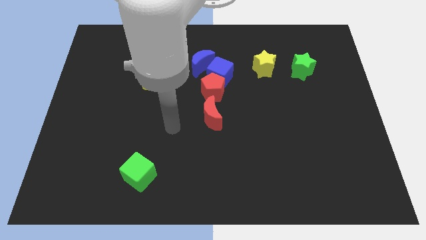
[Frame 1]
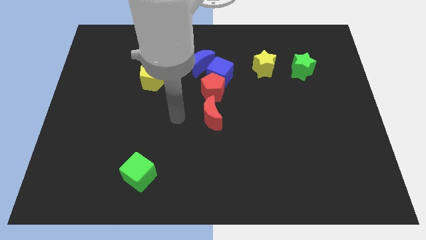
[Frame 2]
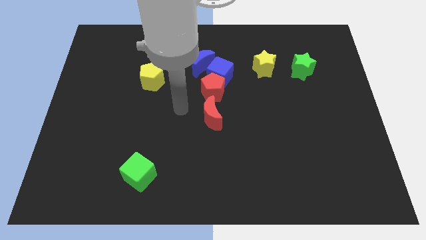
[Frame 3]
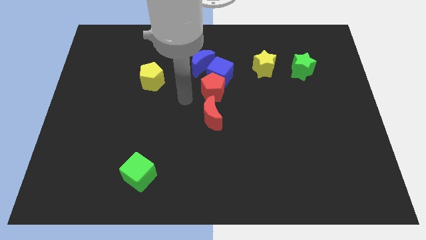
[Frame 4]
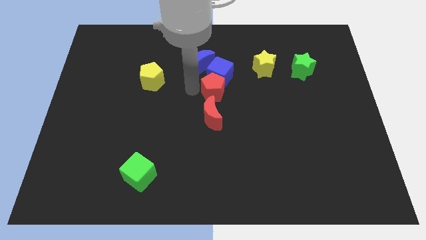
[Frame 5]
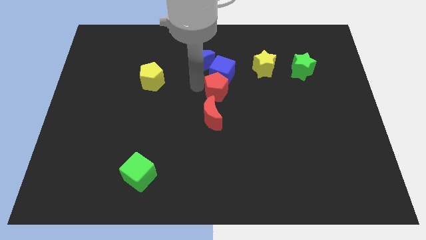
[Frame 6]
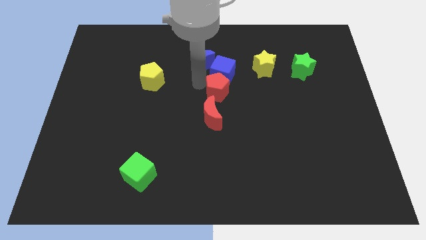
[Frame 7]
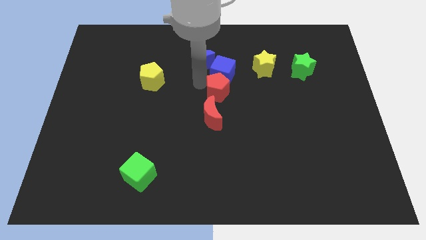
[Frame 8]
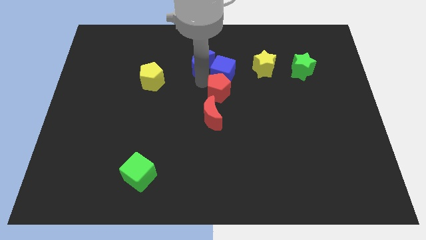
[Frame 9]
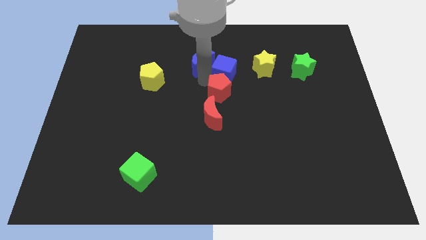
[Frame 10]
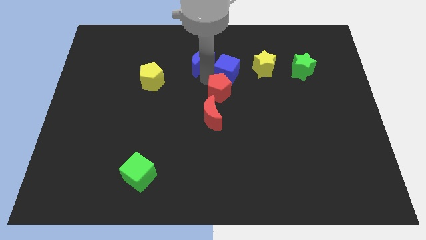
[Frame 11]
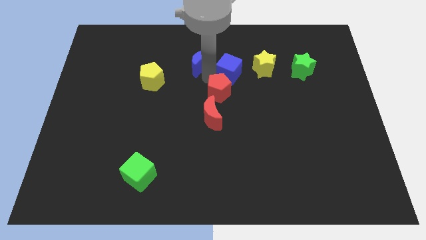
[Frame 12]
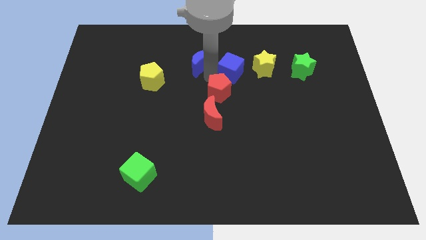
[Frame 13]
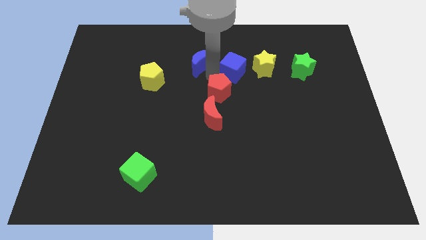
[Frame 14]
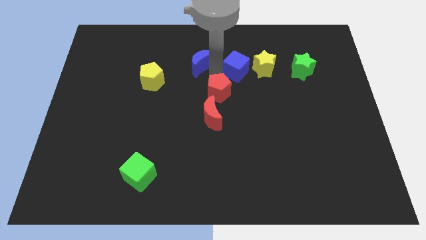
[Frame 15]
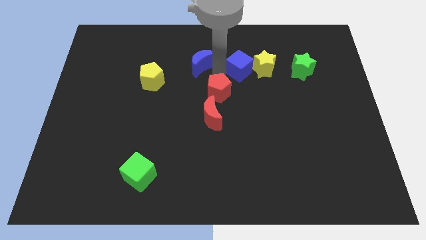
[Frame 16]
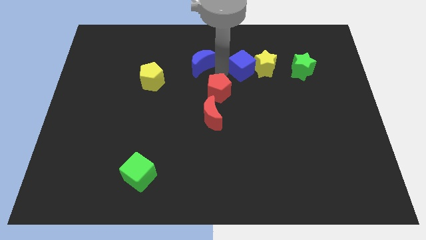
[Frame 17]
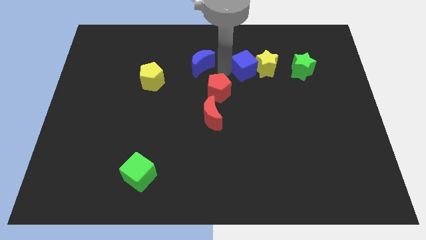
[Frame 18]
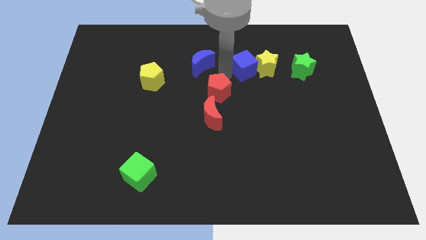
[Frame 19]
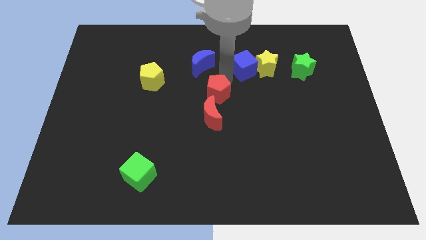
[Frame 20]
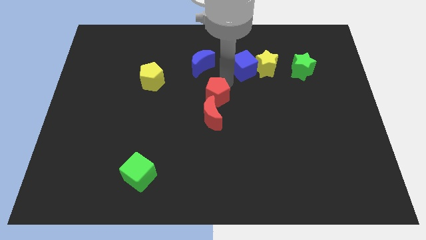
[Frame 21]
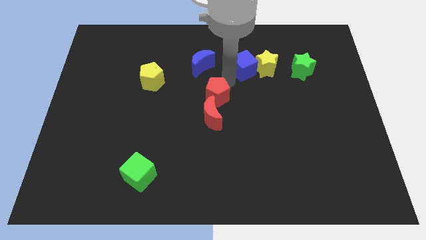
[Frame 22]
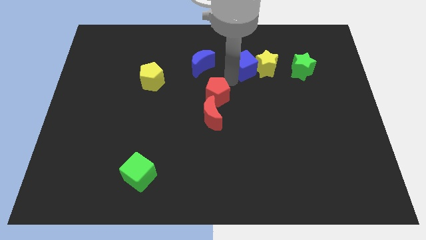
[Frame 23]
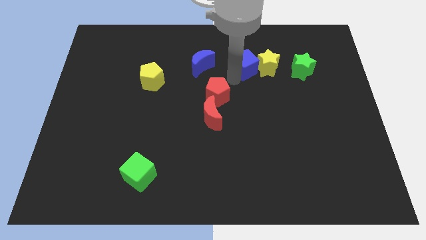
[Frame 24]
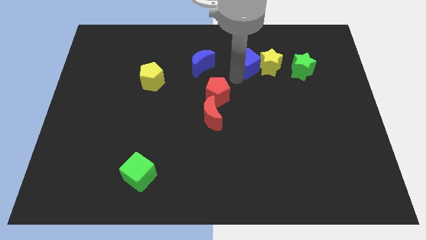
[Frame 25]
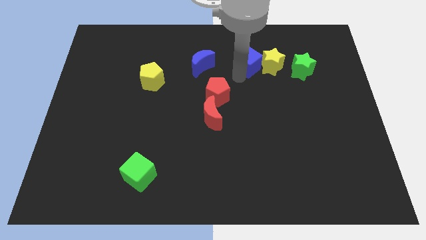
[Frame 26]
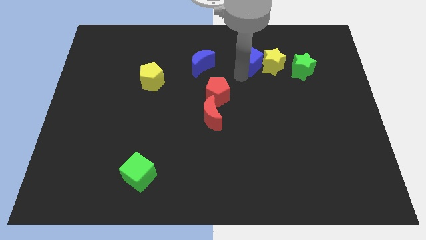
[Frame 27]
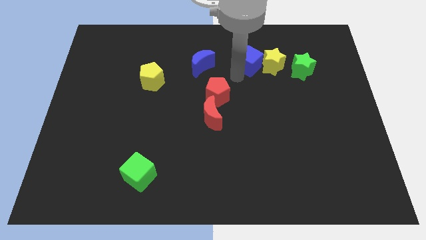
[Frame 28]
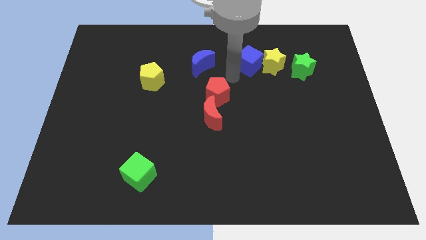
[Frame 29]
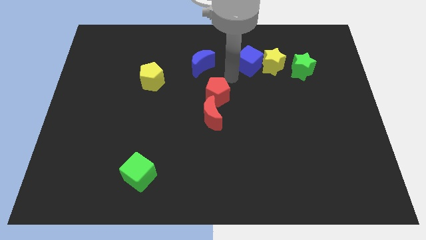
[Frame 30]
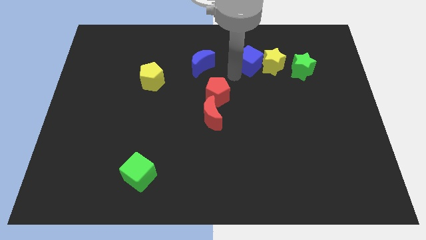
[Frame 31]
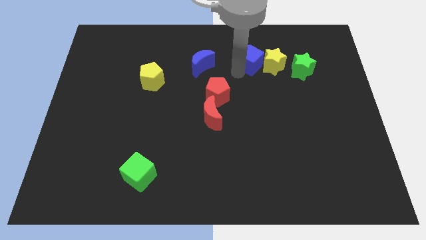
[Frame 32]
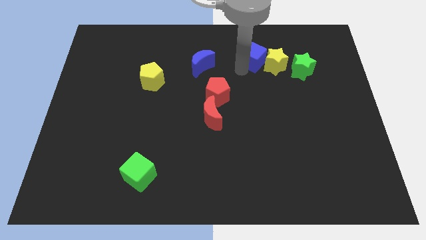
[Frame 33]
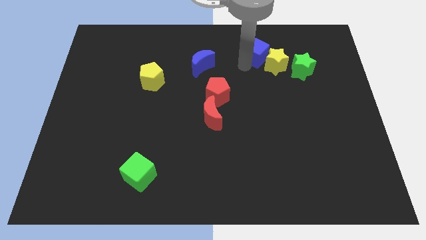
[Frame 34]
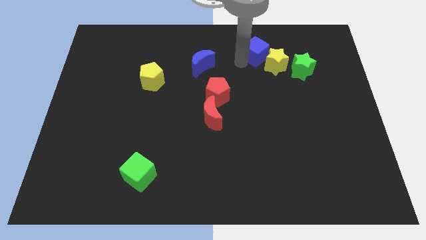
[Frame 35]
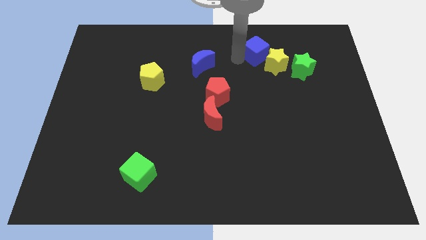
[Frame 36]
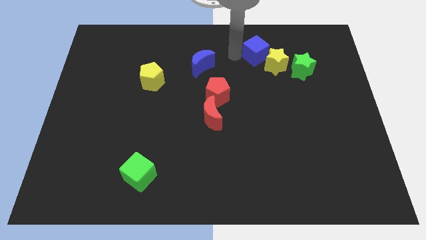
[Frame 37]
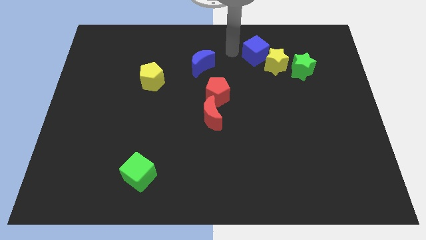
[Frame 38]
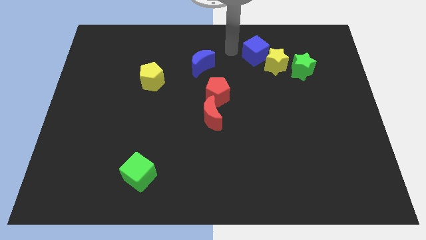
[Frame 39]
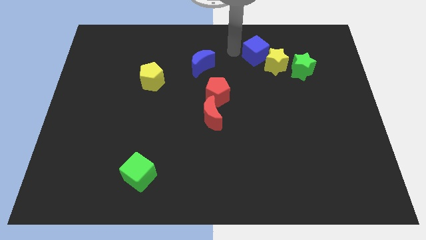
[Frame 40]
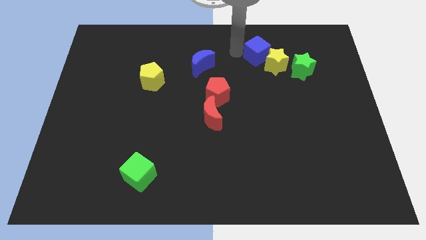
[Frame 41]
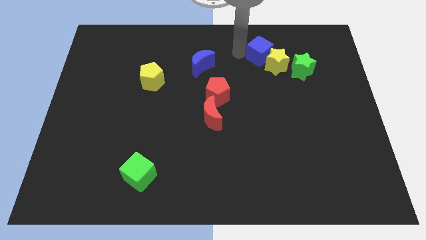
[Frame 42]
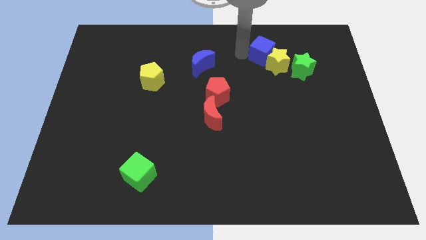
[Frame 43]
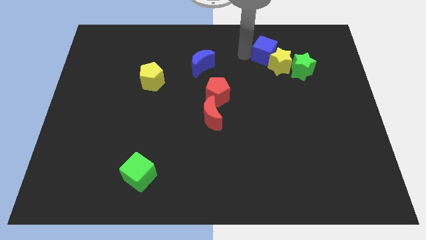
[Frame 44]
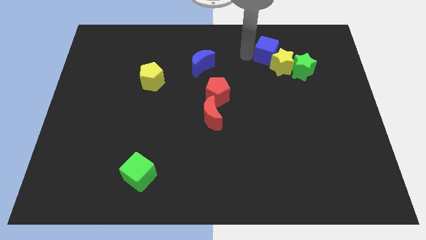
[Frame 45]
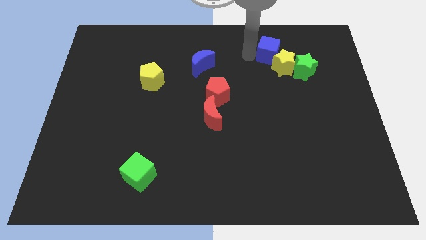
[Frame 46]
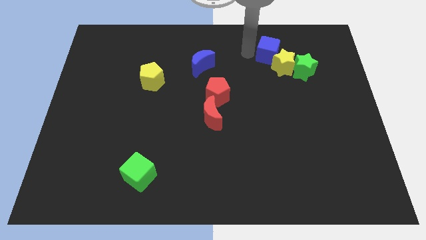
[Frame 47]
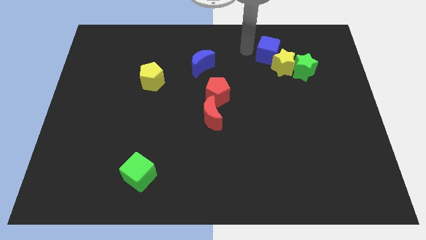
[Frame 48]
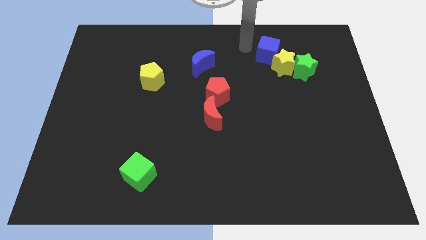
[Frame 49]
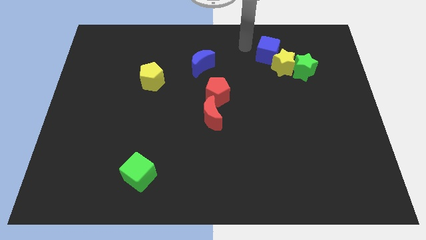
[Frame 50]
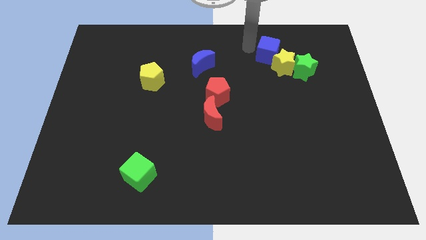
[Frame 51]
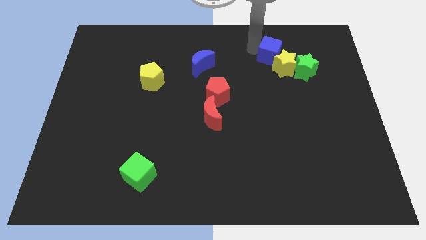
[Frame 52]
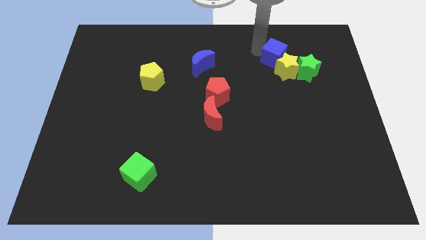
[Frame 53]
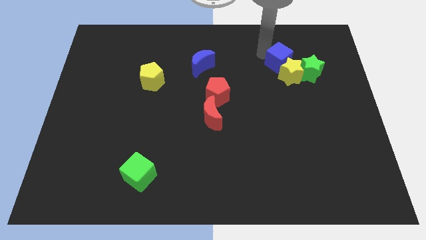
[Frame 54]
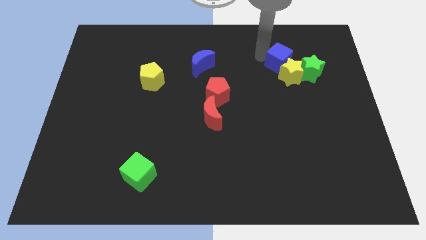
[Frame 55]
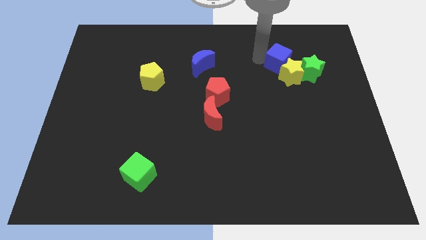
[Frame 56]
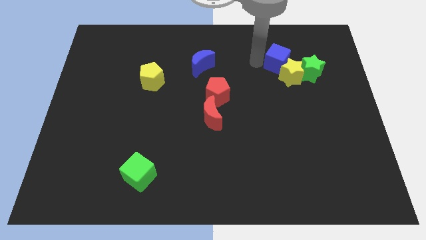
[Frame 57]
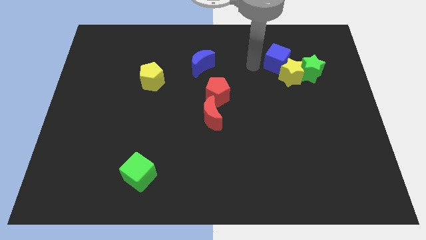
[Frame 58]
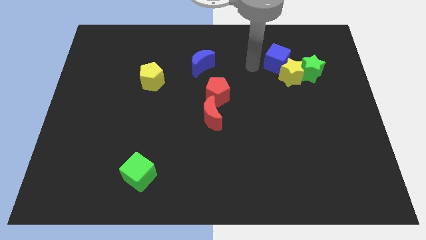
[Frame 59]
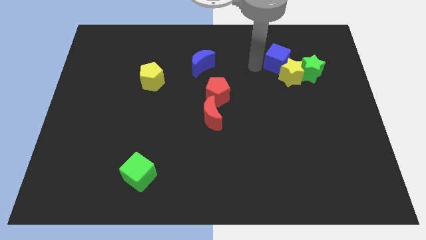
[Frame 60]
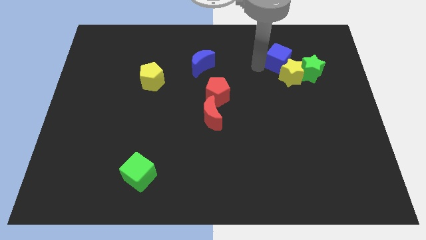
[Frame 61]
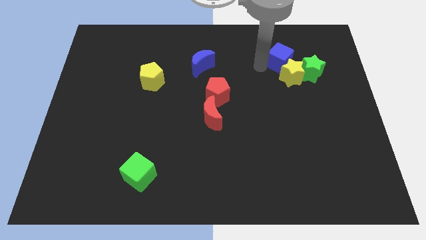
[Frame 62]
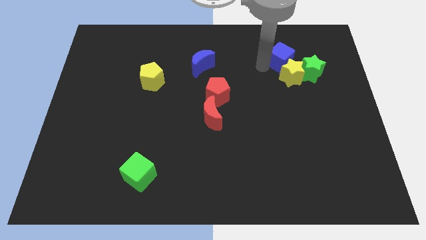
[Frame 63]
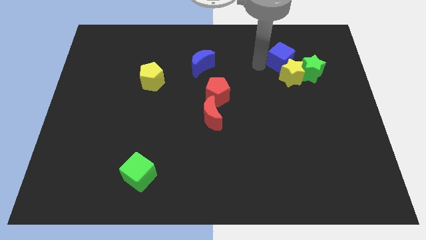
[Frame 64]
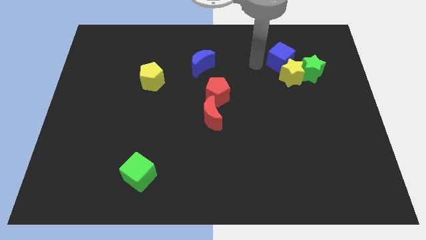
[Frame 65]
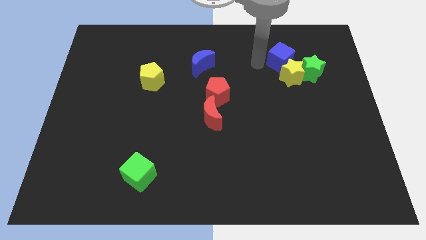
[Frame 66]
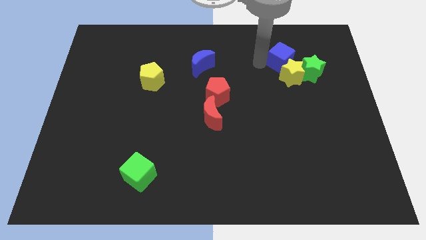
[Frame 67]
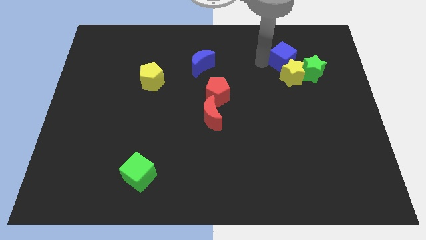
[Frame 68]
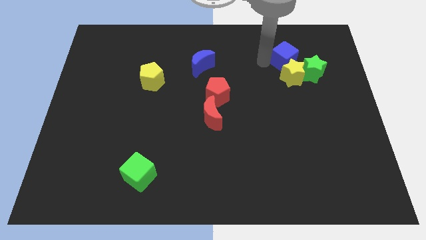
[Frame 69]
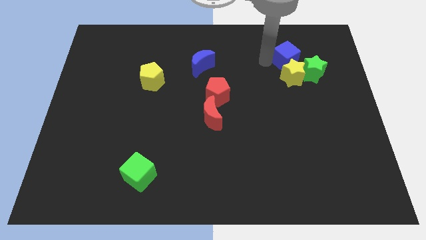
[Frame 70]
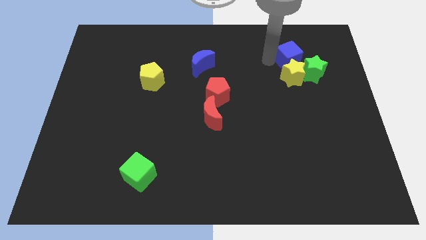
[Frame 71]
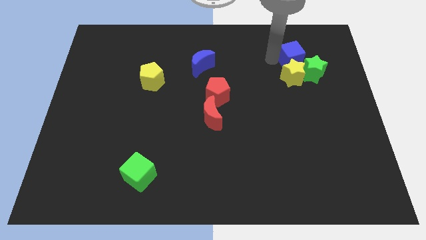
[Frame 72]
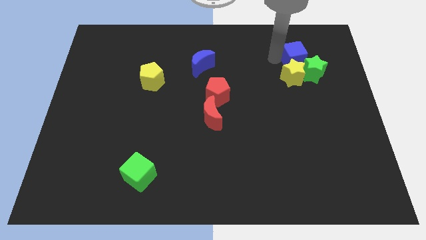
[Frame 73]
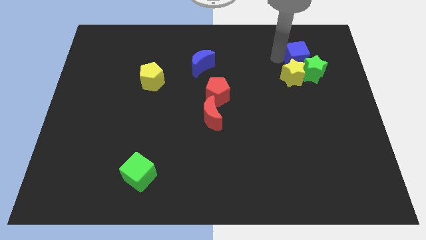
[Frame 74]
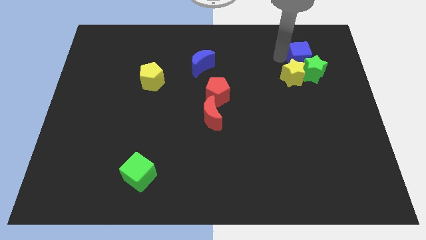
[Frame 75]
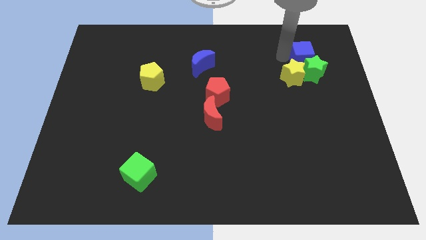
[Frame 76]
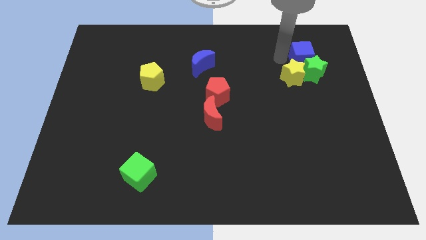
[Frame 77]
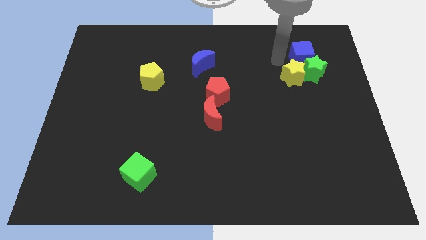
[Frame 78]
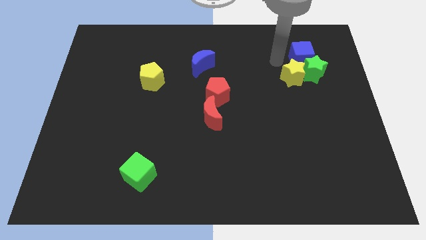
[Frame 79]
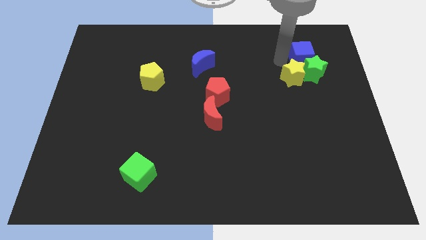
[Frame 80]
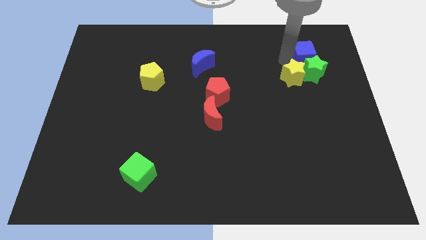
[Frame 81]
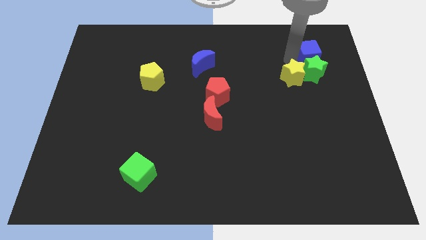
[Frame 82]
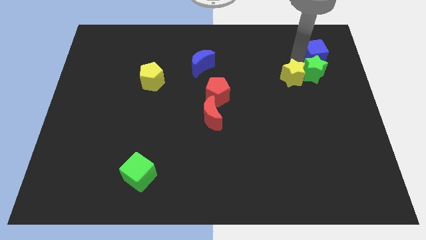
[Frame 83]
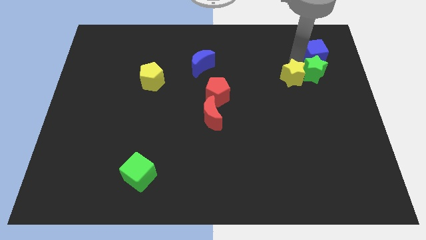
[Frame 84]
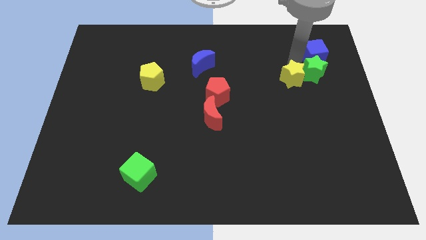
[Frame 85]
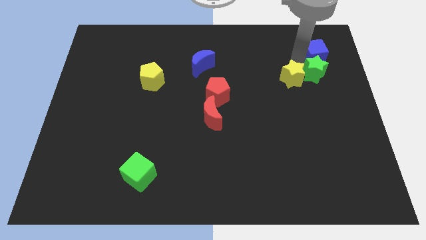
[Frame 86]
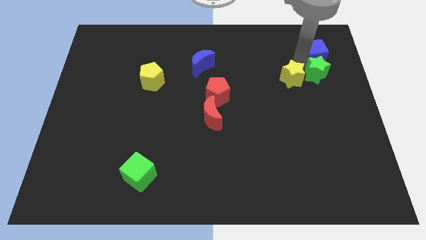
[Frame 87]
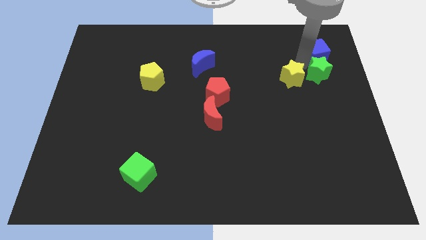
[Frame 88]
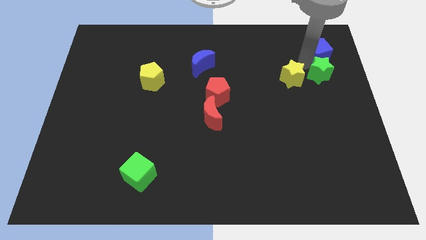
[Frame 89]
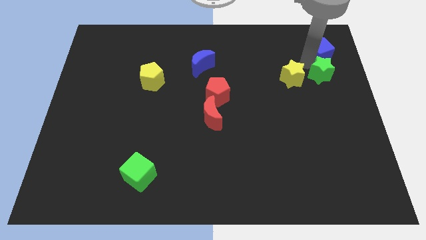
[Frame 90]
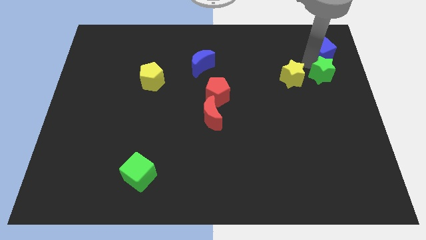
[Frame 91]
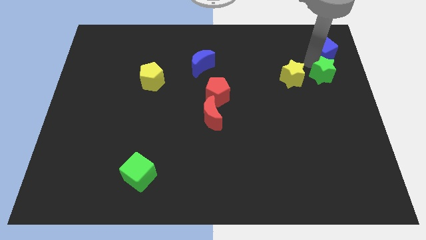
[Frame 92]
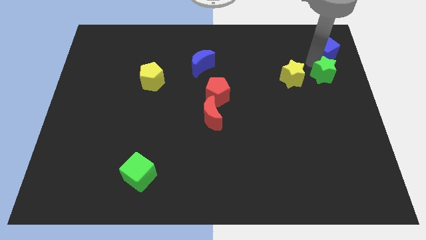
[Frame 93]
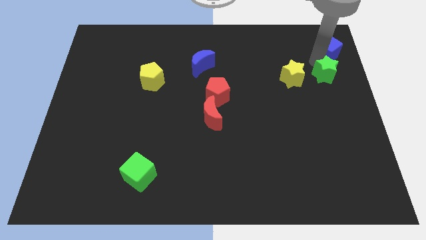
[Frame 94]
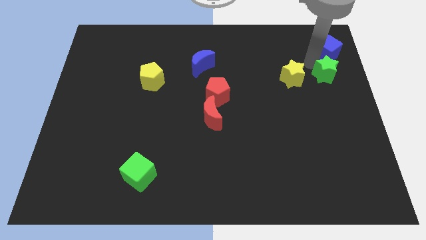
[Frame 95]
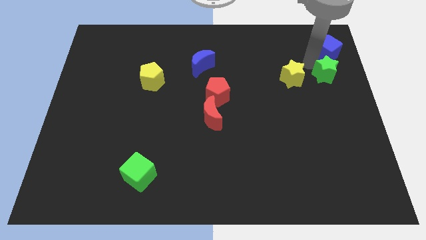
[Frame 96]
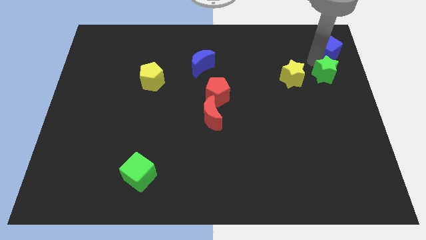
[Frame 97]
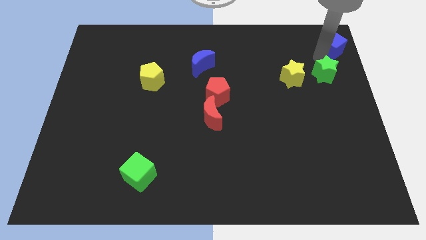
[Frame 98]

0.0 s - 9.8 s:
put the blue cube to the top right corner
